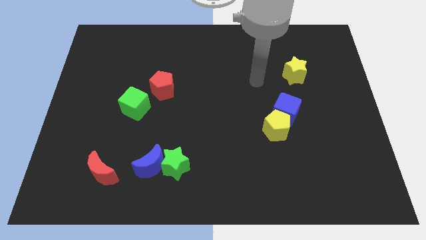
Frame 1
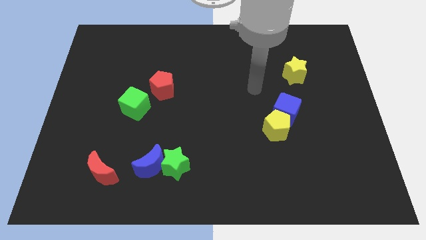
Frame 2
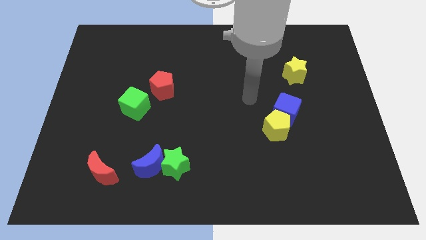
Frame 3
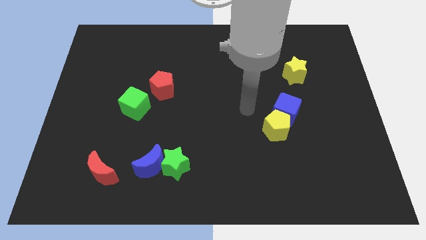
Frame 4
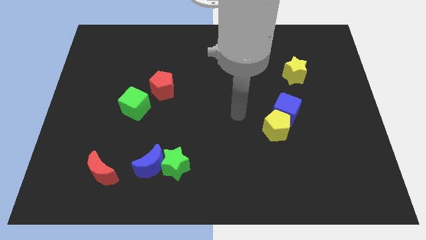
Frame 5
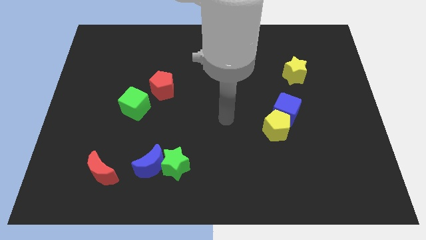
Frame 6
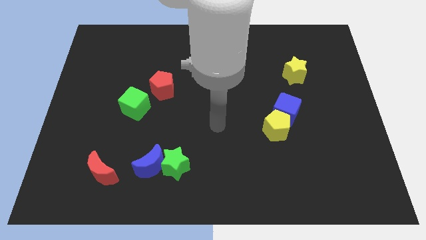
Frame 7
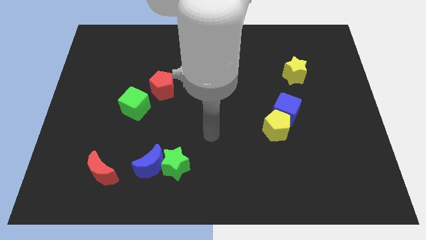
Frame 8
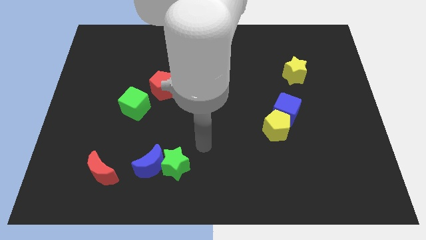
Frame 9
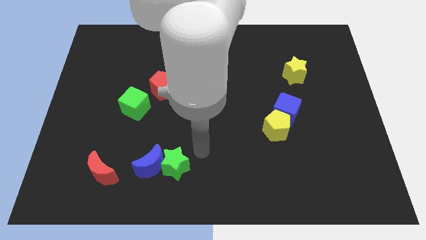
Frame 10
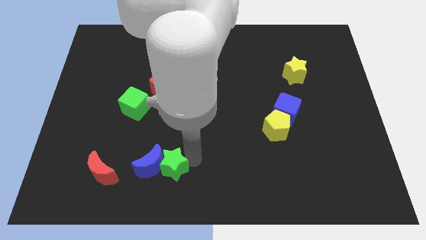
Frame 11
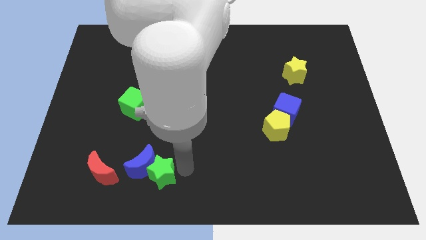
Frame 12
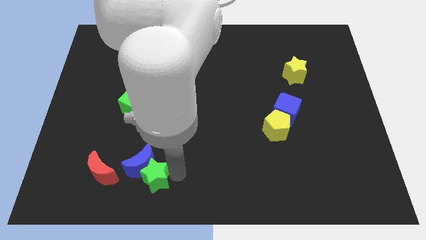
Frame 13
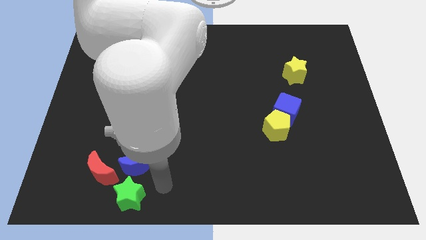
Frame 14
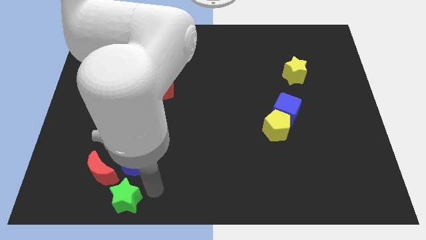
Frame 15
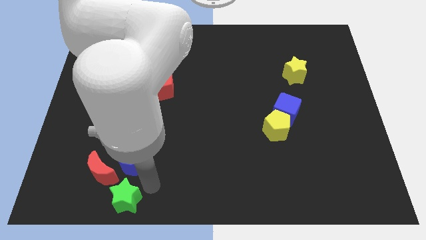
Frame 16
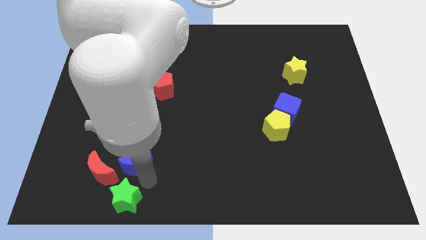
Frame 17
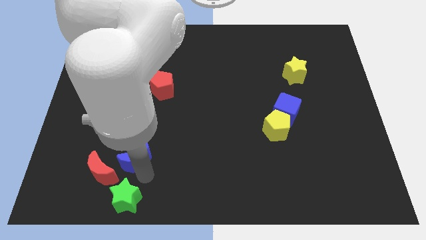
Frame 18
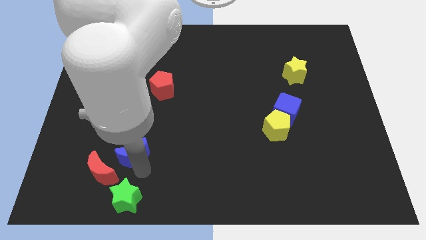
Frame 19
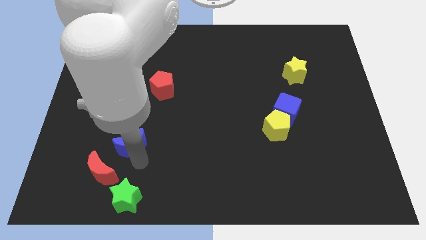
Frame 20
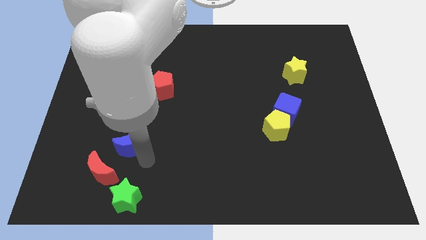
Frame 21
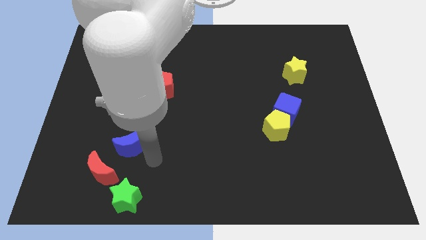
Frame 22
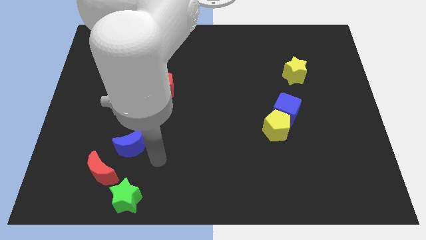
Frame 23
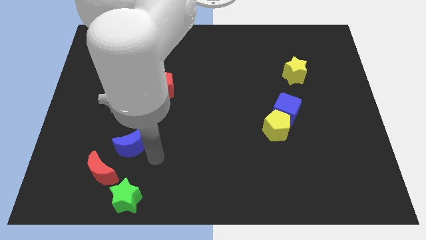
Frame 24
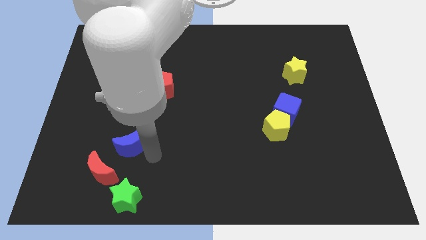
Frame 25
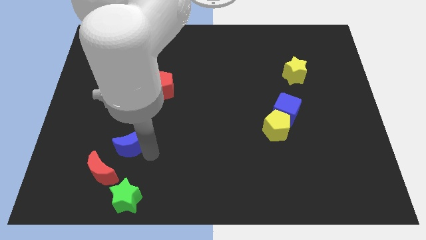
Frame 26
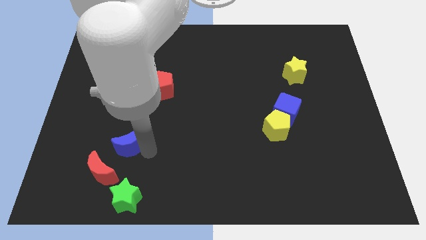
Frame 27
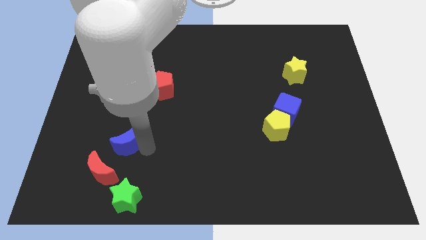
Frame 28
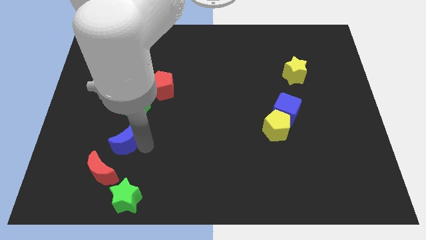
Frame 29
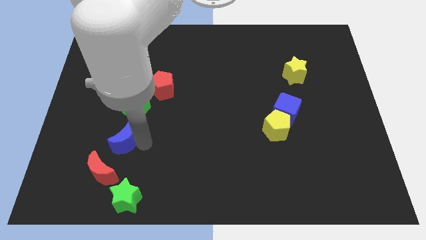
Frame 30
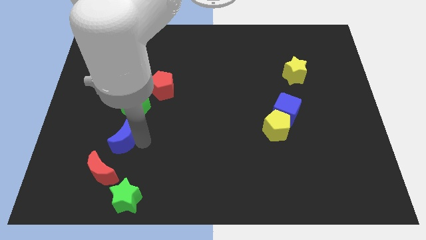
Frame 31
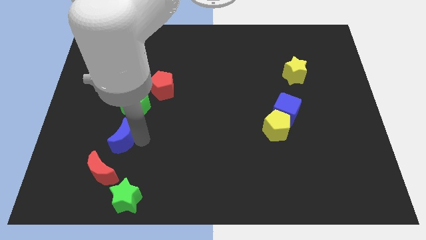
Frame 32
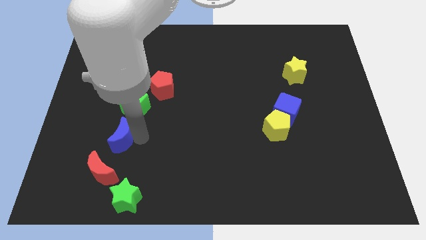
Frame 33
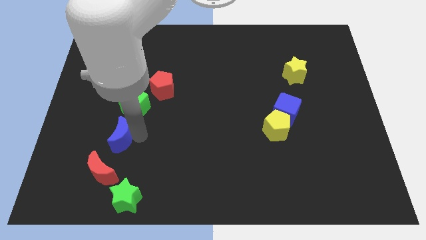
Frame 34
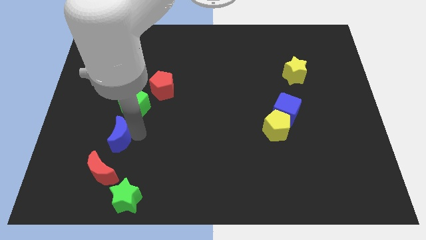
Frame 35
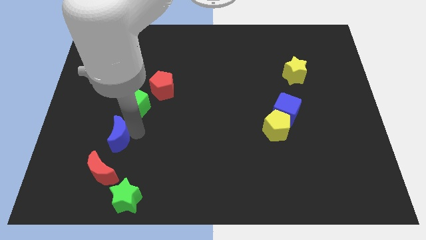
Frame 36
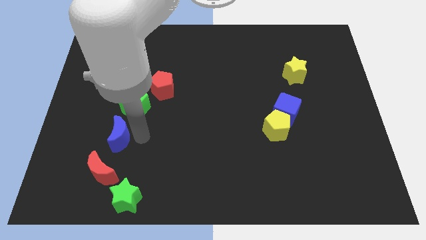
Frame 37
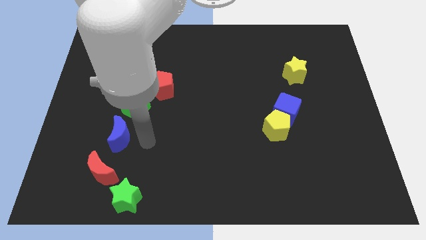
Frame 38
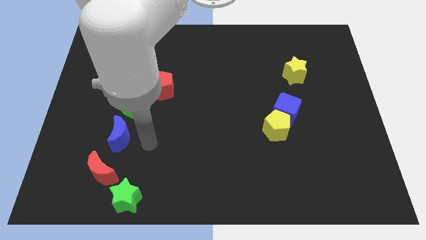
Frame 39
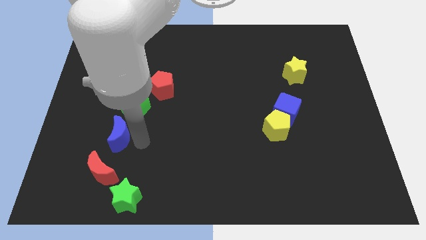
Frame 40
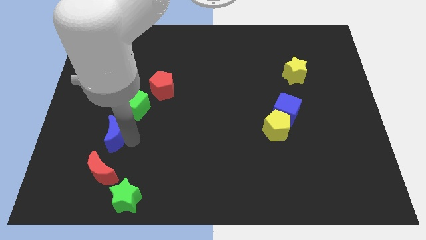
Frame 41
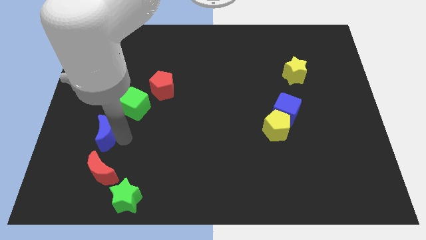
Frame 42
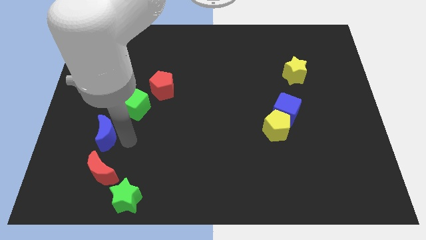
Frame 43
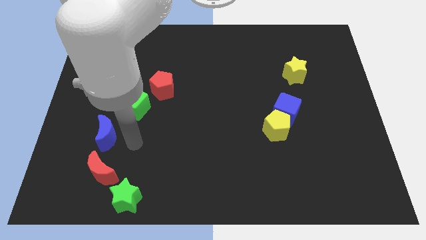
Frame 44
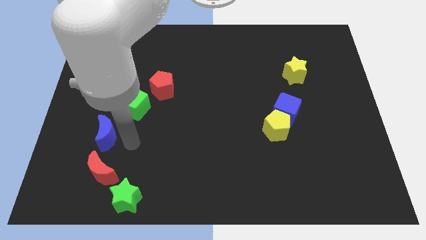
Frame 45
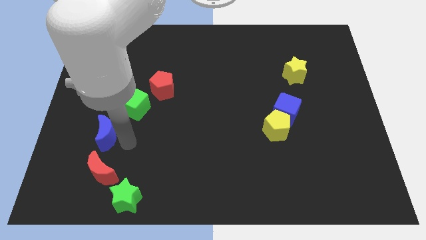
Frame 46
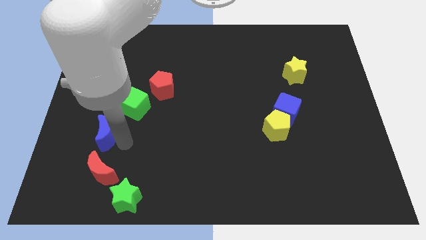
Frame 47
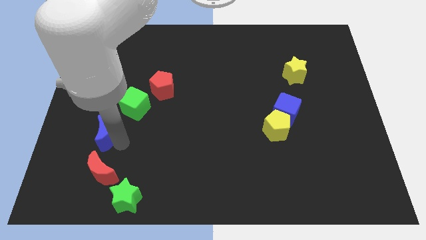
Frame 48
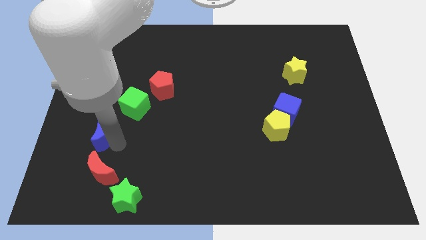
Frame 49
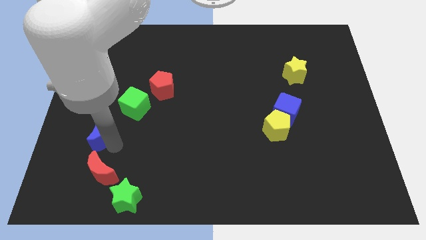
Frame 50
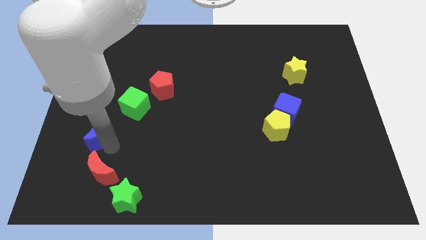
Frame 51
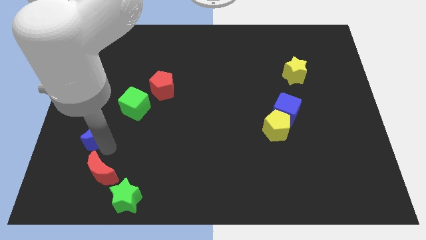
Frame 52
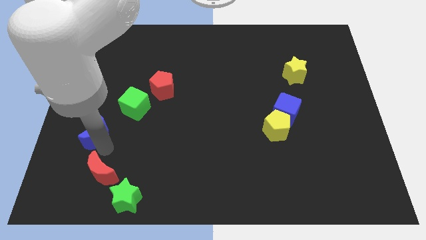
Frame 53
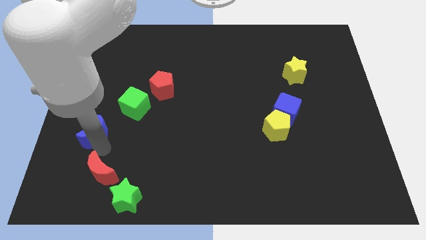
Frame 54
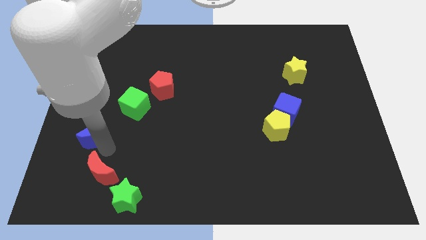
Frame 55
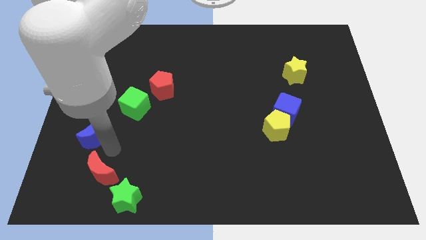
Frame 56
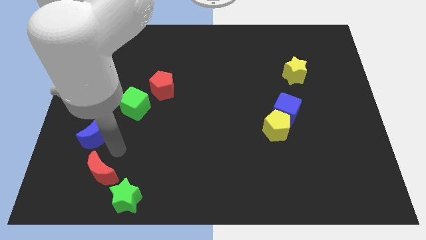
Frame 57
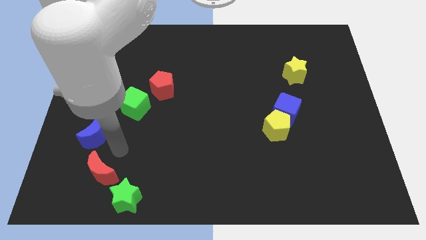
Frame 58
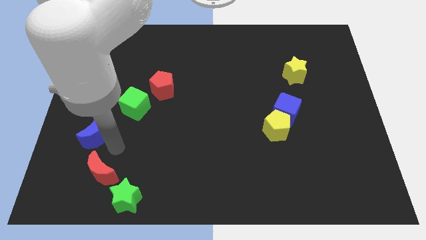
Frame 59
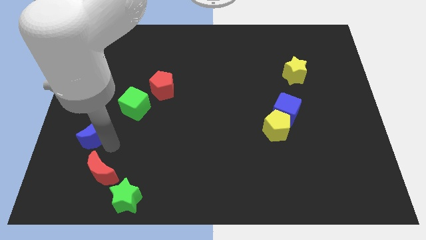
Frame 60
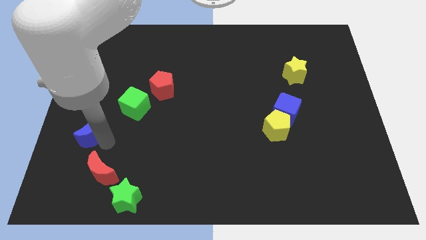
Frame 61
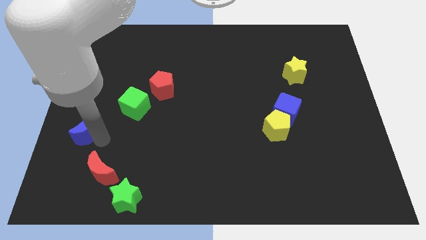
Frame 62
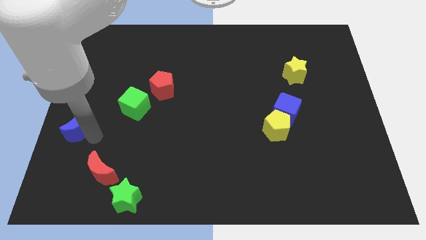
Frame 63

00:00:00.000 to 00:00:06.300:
push the blue moon to the left side of the board

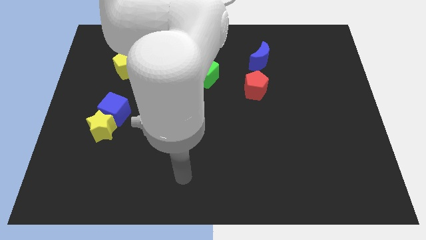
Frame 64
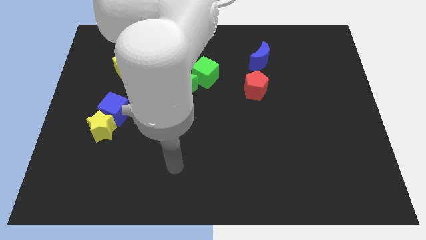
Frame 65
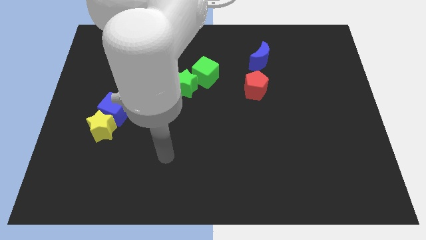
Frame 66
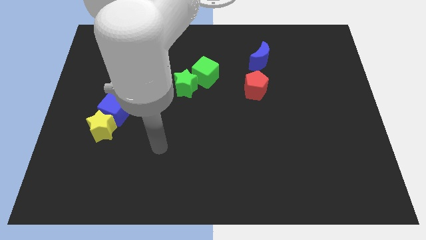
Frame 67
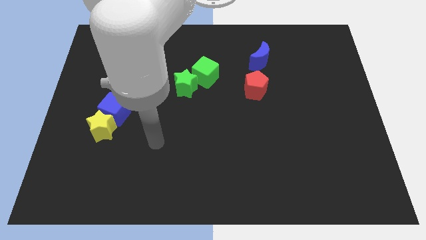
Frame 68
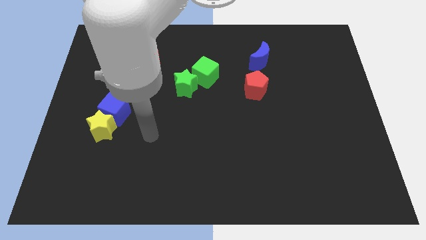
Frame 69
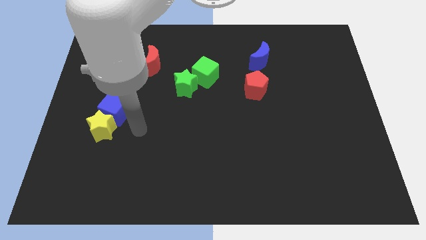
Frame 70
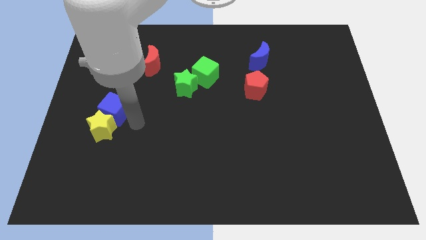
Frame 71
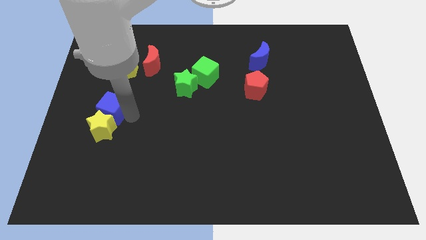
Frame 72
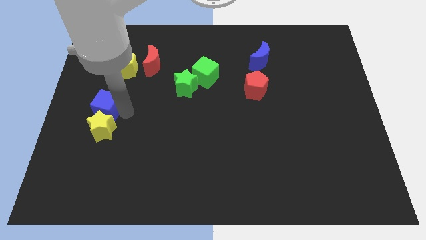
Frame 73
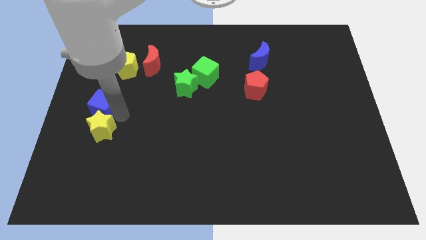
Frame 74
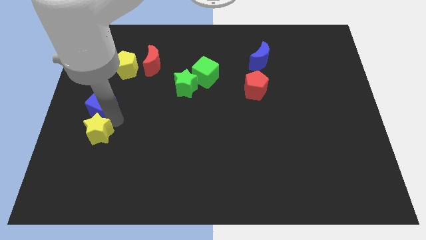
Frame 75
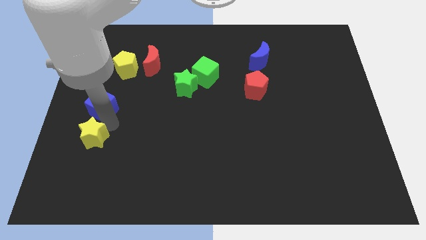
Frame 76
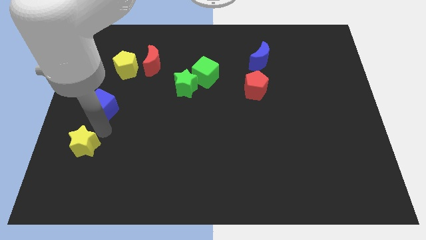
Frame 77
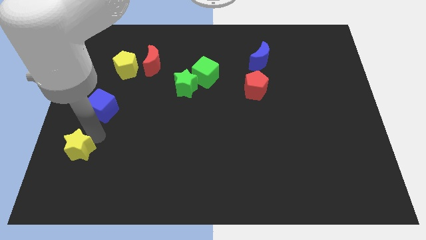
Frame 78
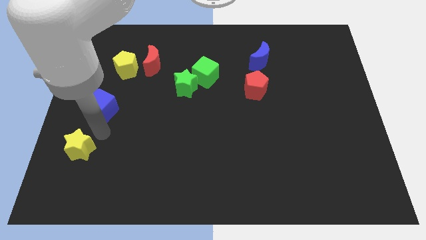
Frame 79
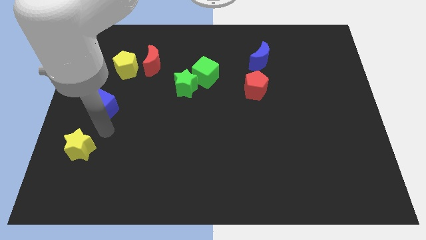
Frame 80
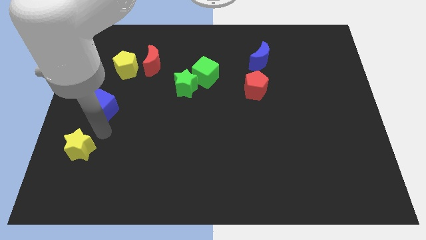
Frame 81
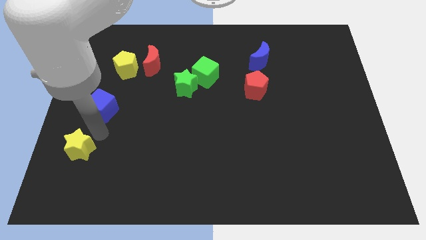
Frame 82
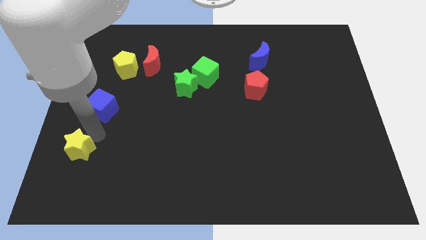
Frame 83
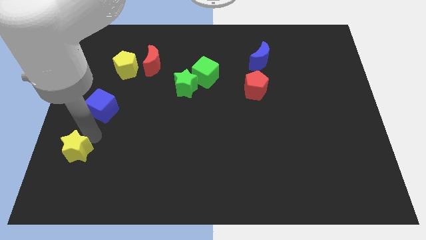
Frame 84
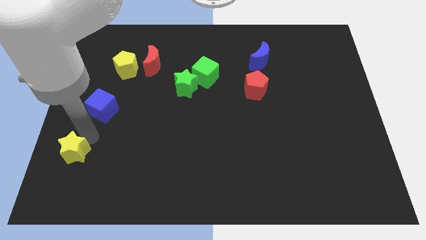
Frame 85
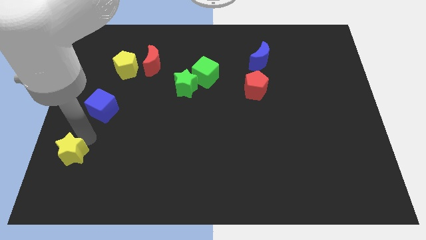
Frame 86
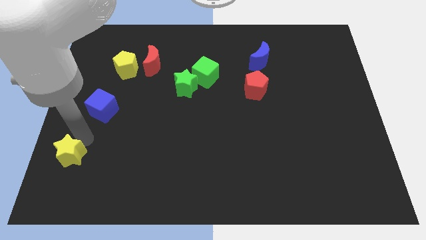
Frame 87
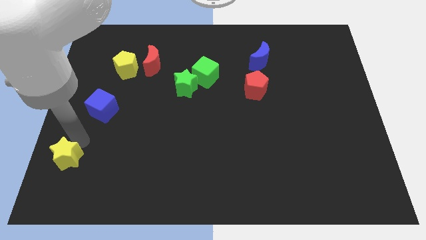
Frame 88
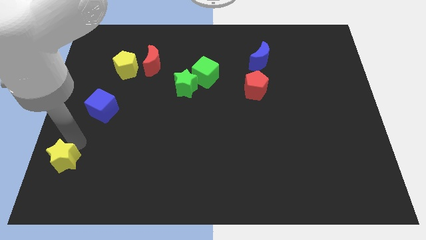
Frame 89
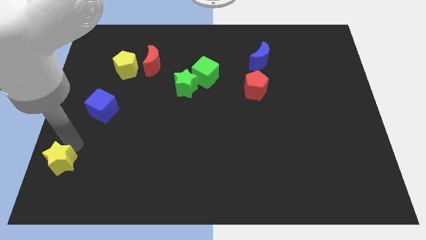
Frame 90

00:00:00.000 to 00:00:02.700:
push the yellow star to the lower left corner
